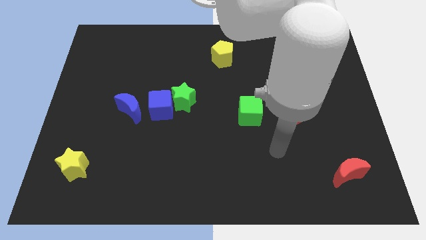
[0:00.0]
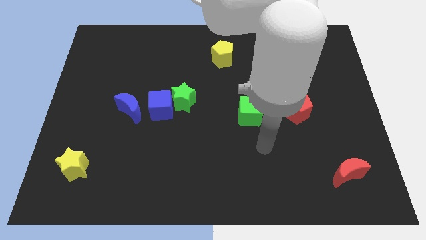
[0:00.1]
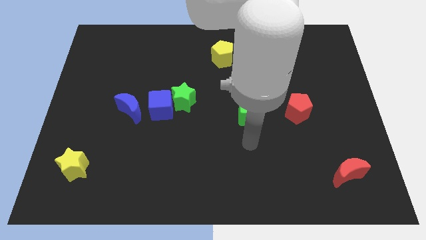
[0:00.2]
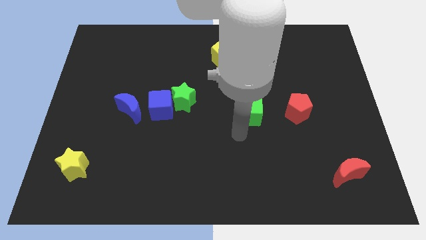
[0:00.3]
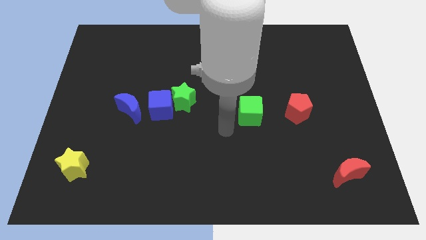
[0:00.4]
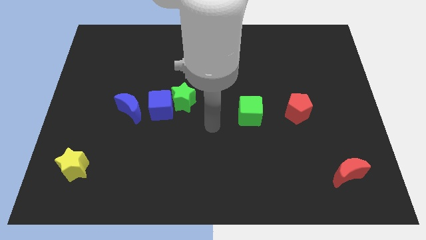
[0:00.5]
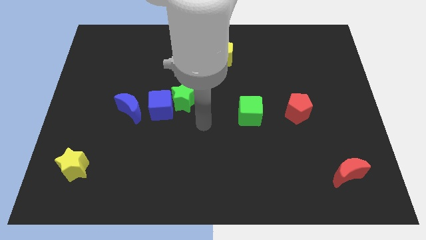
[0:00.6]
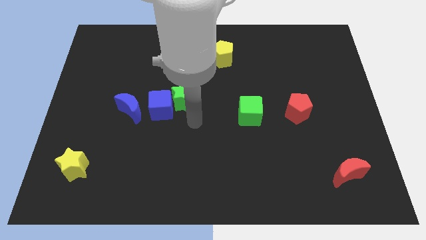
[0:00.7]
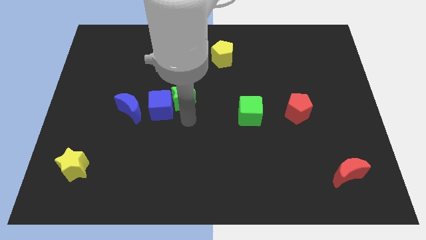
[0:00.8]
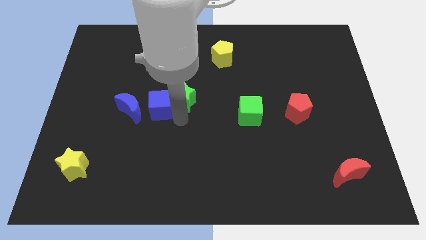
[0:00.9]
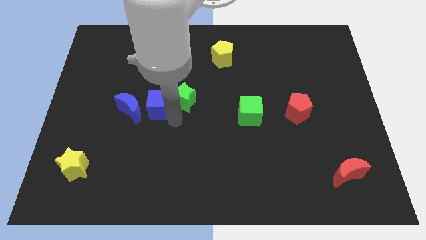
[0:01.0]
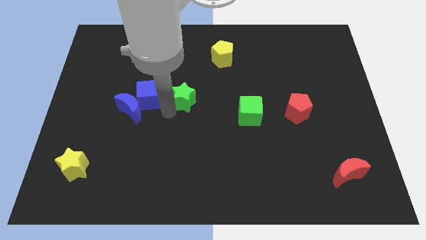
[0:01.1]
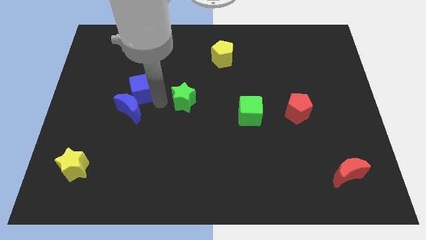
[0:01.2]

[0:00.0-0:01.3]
separate the green star from the blue cube

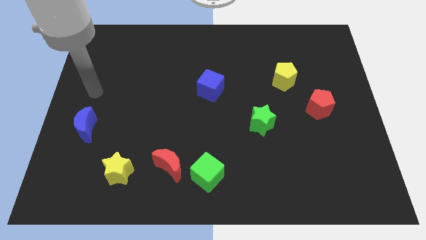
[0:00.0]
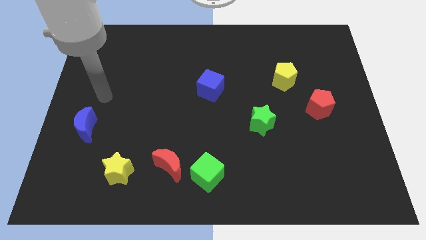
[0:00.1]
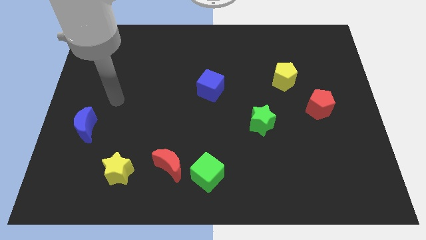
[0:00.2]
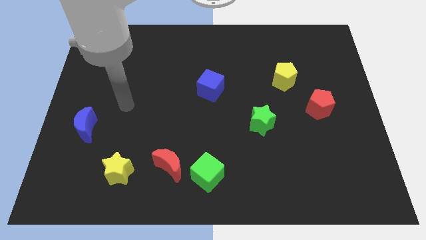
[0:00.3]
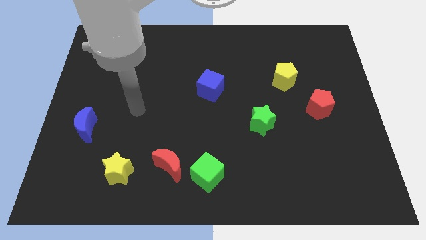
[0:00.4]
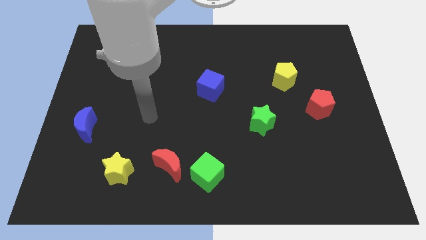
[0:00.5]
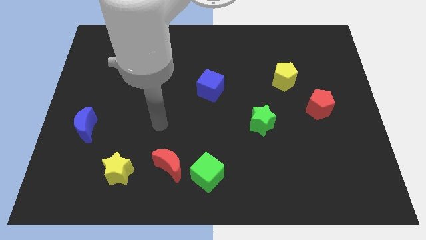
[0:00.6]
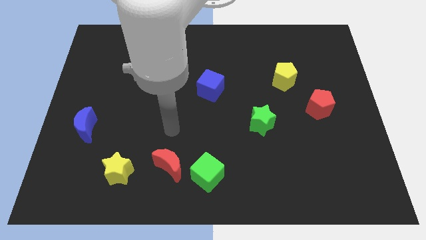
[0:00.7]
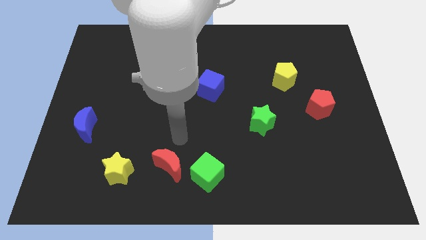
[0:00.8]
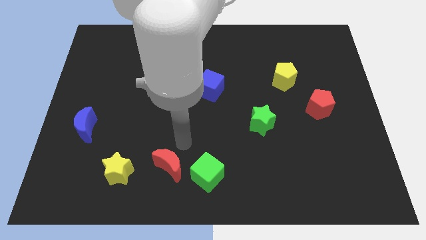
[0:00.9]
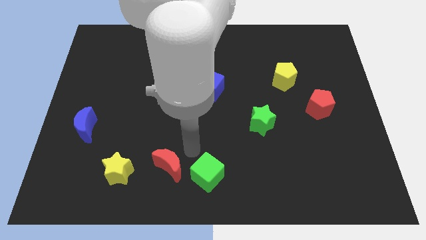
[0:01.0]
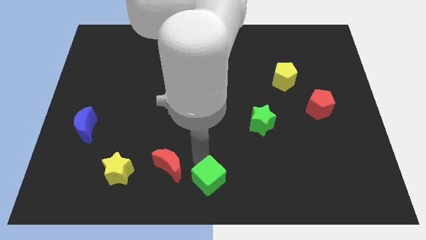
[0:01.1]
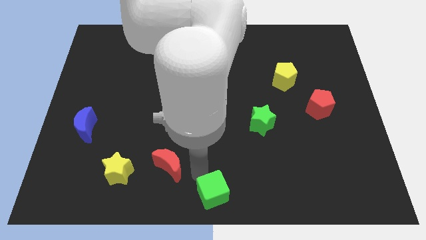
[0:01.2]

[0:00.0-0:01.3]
pull the red moon apart from the green cube

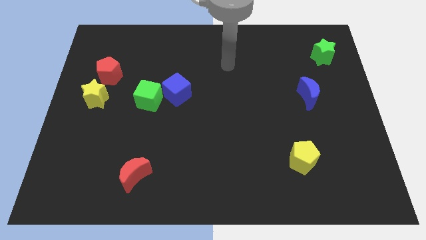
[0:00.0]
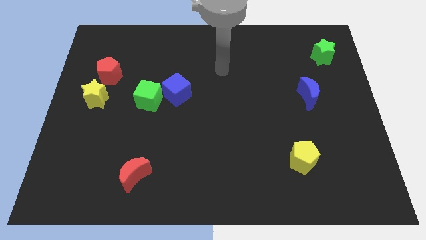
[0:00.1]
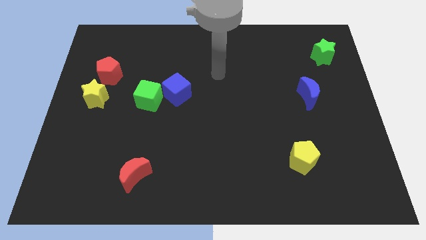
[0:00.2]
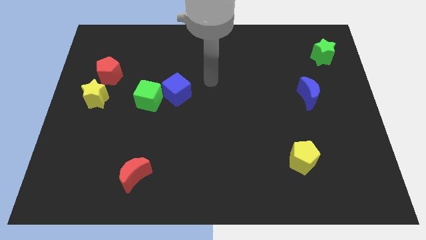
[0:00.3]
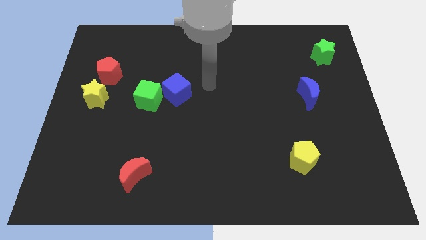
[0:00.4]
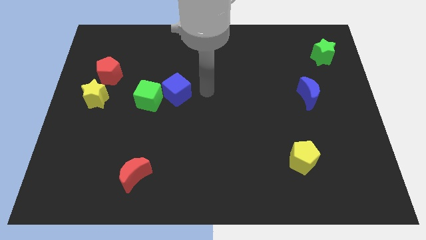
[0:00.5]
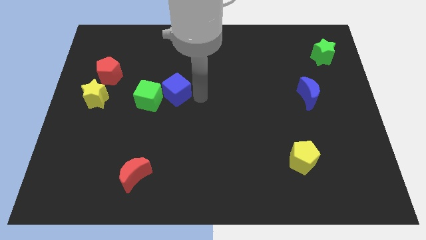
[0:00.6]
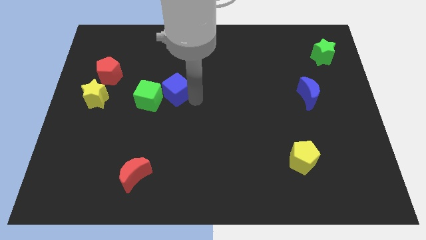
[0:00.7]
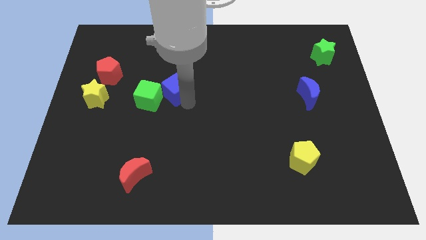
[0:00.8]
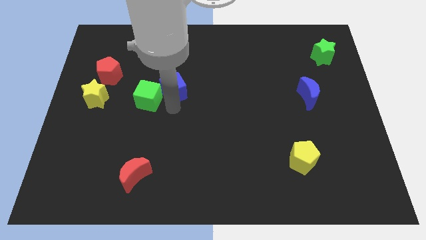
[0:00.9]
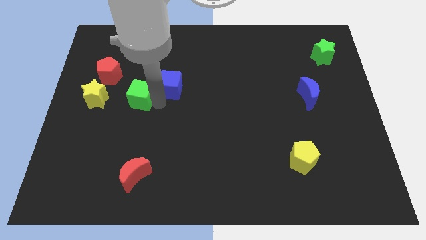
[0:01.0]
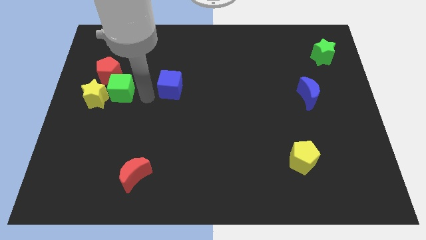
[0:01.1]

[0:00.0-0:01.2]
move the blue cube away from the green cube

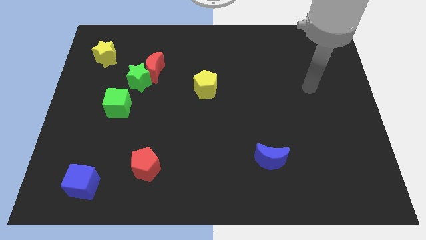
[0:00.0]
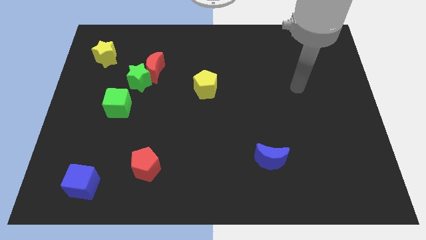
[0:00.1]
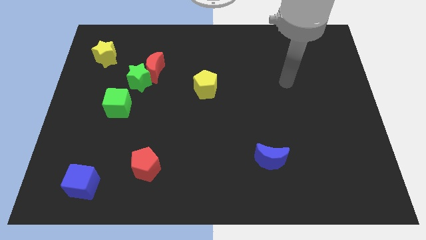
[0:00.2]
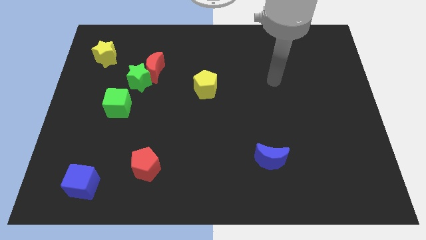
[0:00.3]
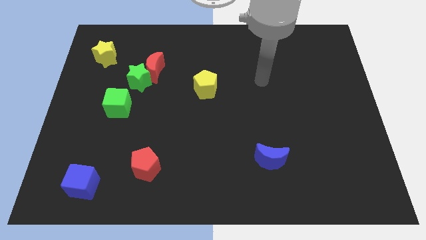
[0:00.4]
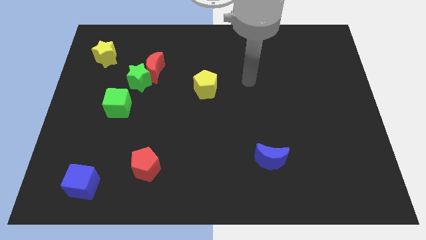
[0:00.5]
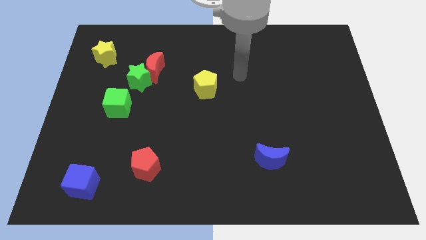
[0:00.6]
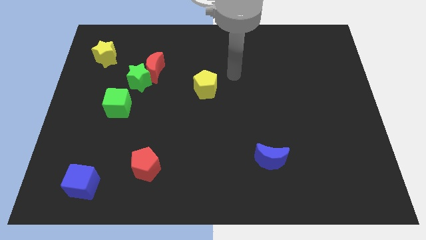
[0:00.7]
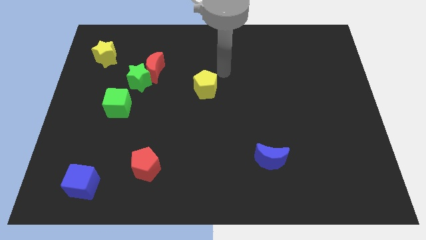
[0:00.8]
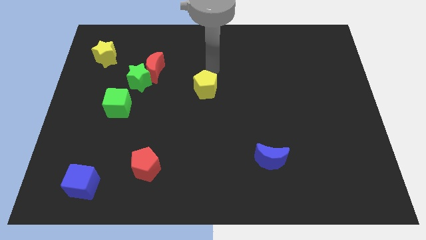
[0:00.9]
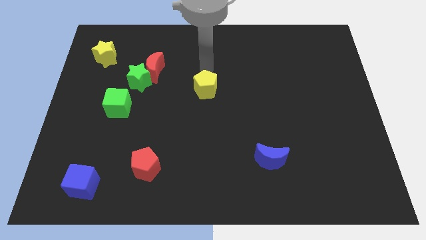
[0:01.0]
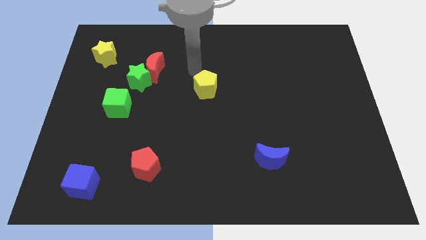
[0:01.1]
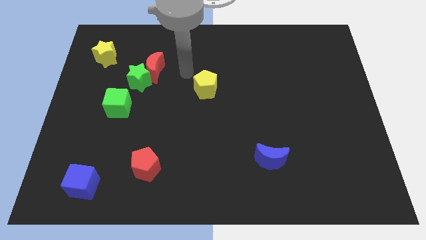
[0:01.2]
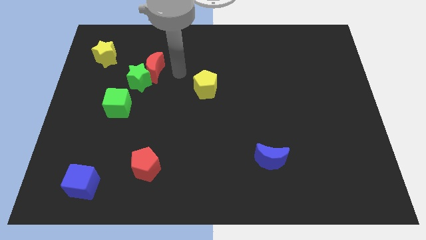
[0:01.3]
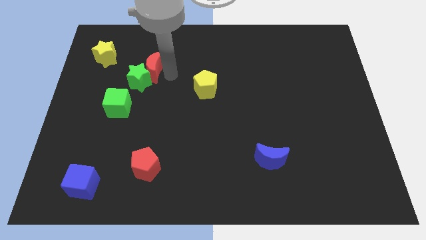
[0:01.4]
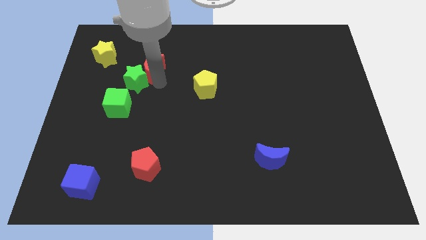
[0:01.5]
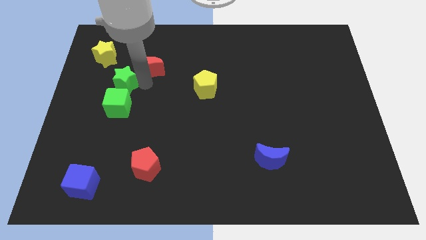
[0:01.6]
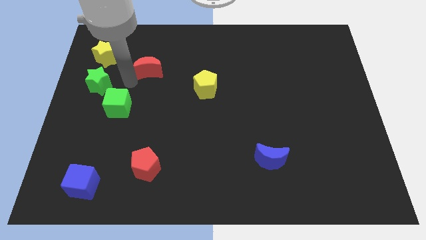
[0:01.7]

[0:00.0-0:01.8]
pull the red moon apart from the green star

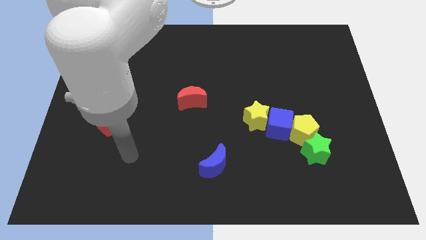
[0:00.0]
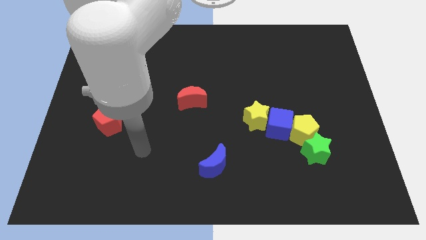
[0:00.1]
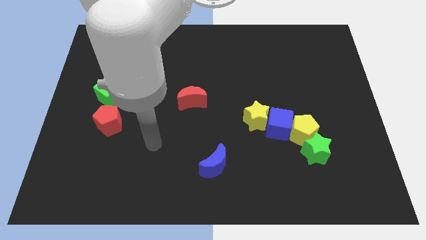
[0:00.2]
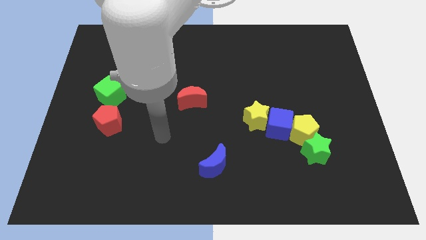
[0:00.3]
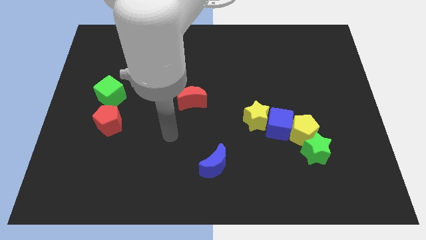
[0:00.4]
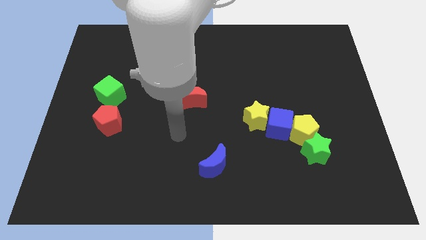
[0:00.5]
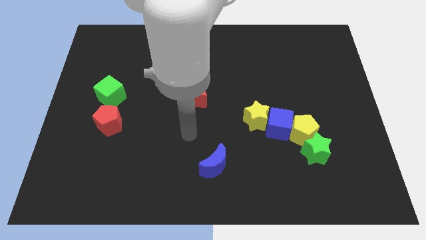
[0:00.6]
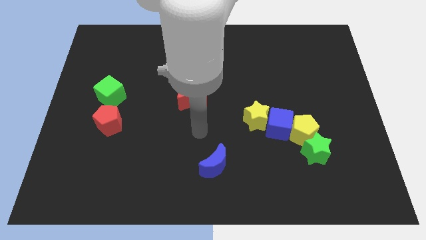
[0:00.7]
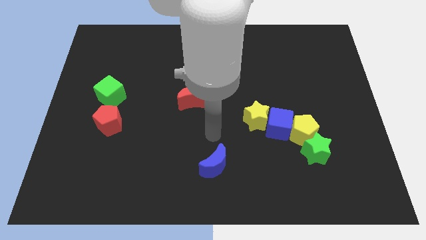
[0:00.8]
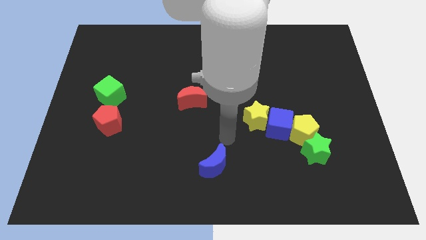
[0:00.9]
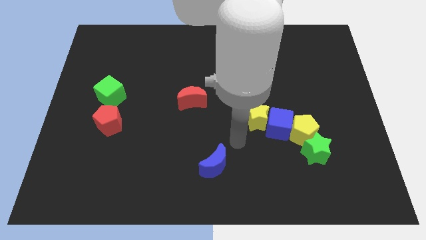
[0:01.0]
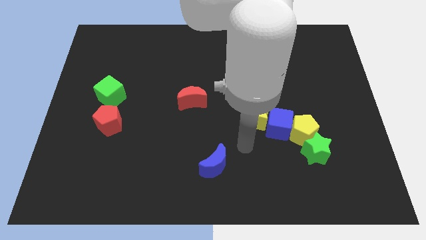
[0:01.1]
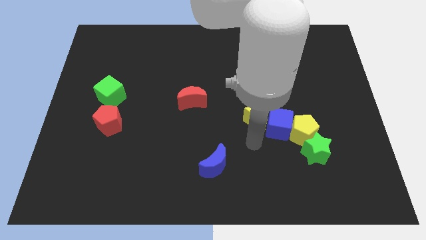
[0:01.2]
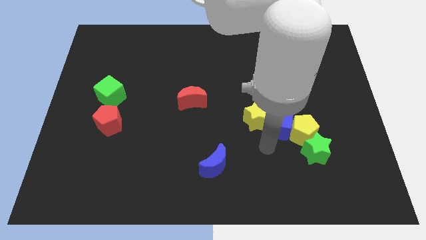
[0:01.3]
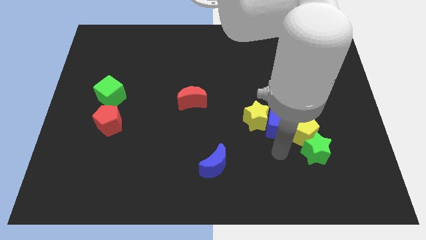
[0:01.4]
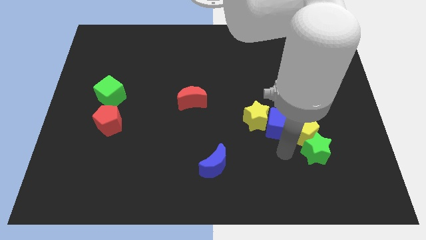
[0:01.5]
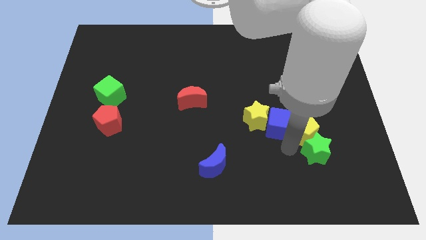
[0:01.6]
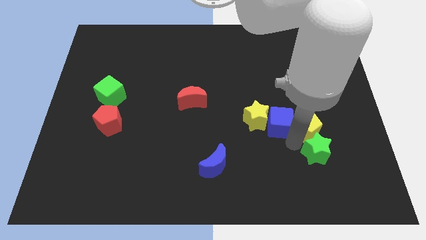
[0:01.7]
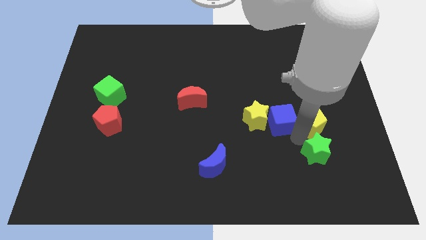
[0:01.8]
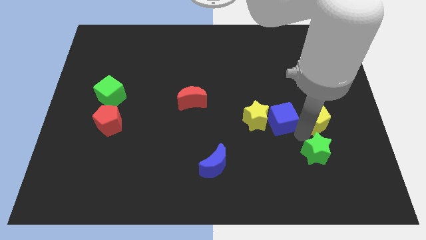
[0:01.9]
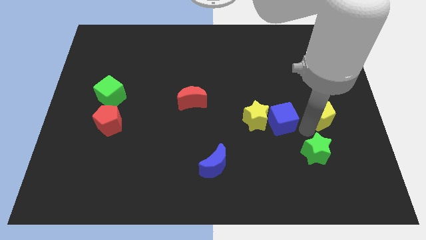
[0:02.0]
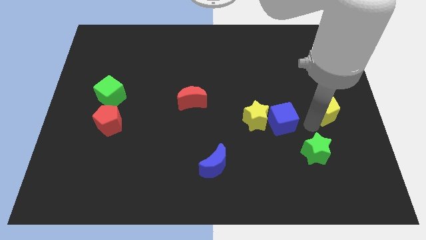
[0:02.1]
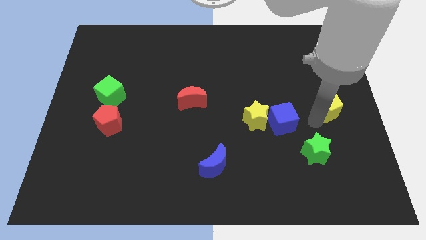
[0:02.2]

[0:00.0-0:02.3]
pull the yellow pentagon apart from the blue cube and green star

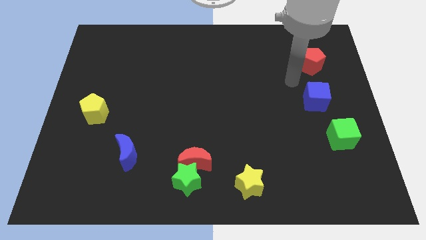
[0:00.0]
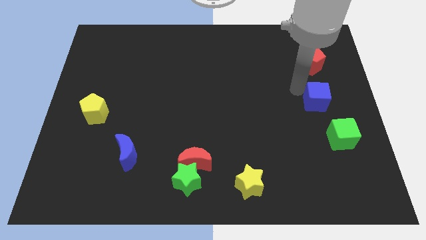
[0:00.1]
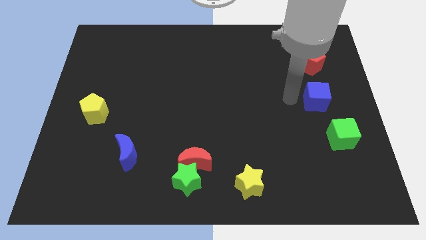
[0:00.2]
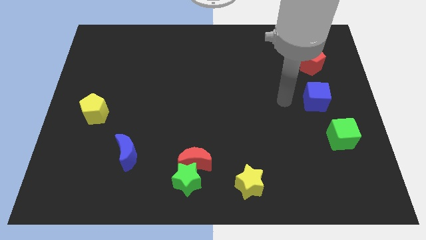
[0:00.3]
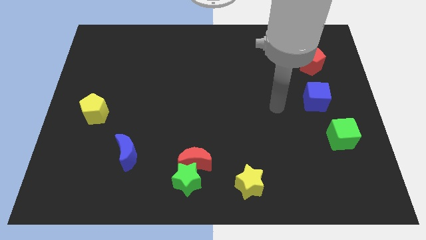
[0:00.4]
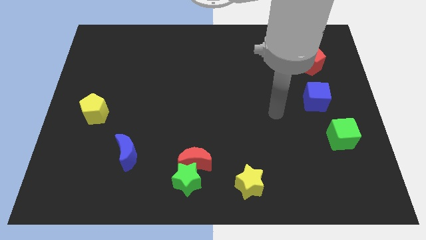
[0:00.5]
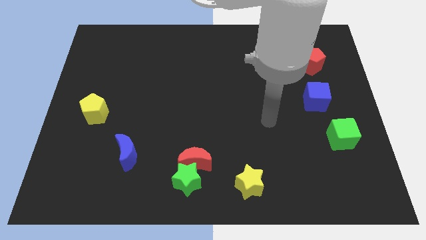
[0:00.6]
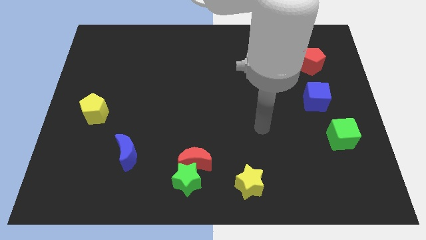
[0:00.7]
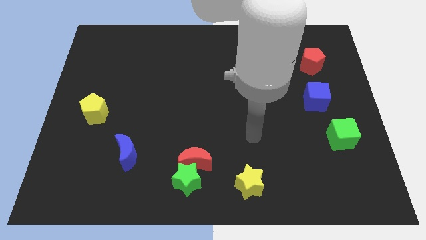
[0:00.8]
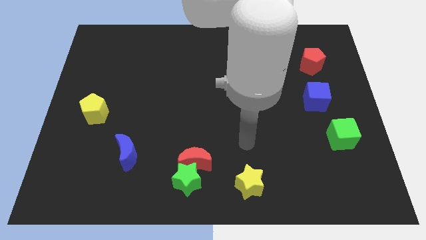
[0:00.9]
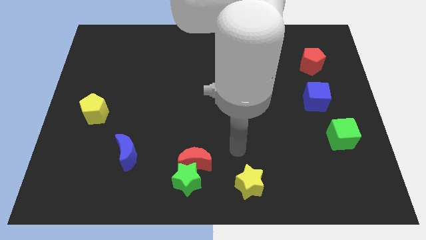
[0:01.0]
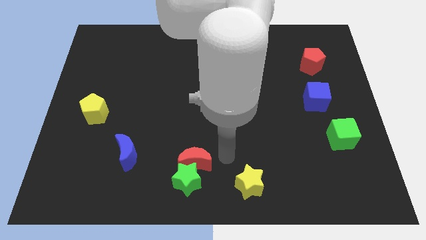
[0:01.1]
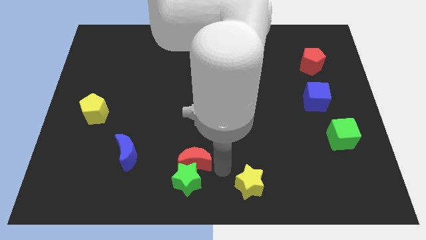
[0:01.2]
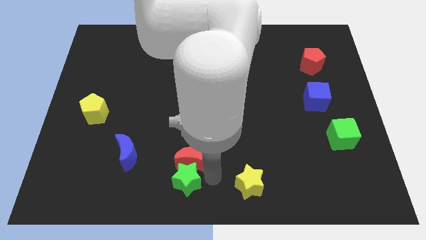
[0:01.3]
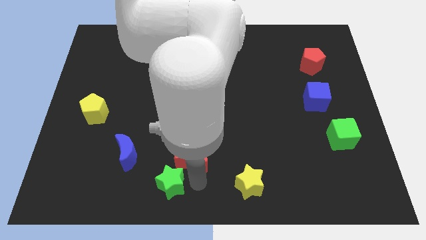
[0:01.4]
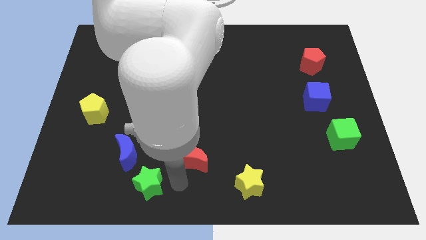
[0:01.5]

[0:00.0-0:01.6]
move the red moon away from the green star
